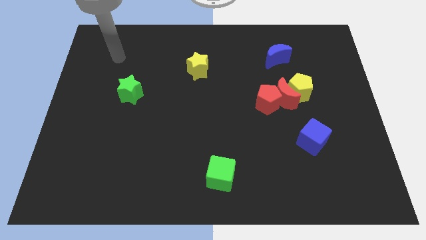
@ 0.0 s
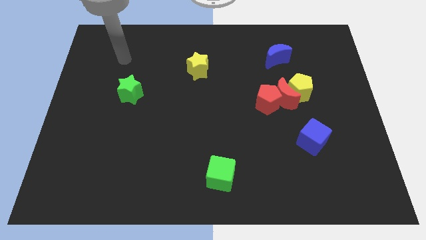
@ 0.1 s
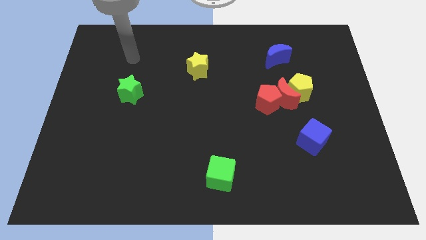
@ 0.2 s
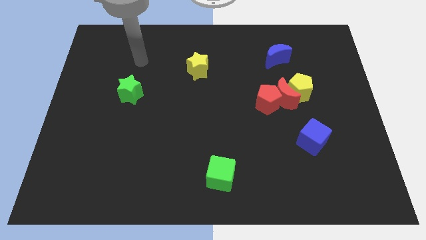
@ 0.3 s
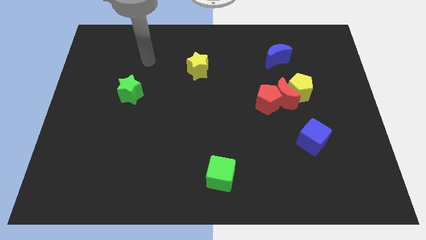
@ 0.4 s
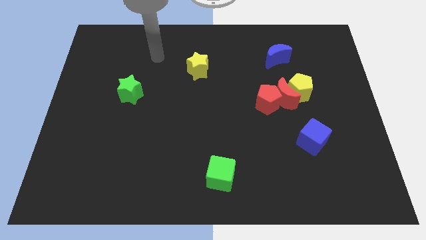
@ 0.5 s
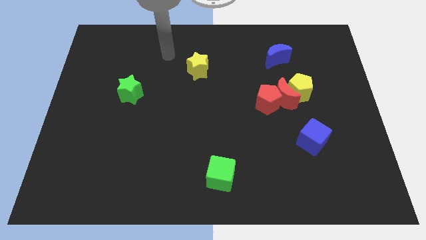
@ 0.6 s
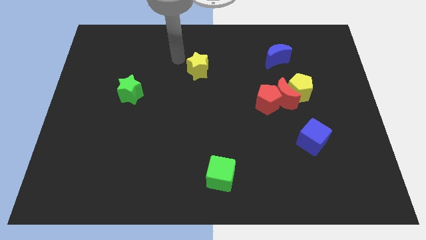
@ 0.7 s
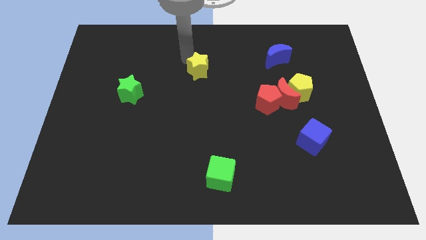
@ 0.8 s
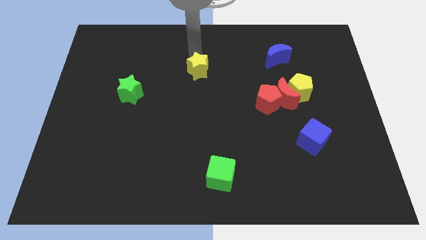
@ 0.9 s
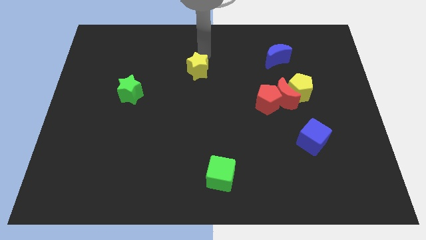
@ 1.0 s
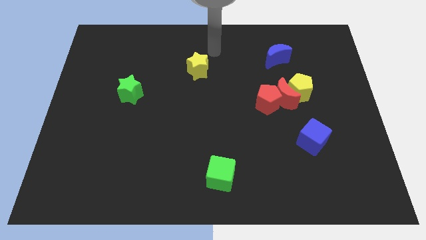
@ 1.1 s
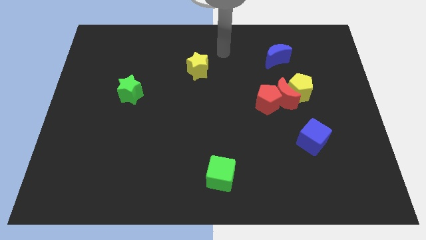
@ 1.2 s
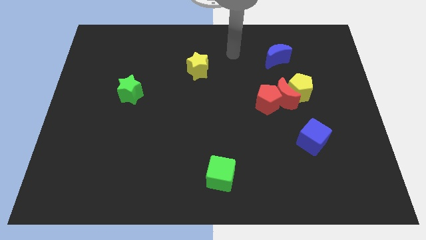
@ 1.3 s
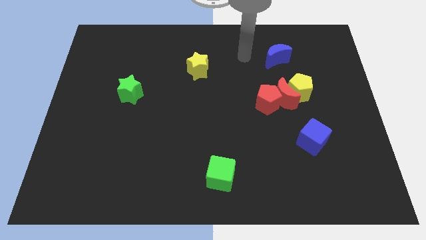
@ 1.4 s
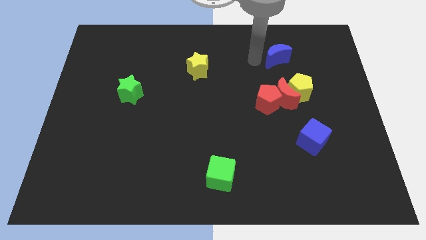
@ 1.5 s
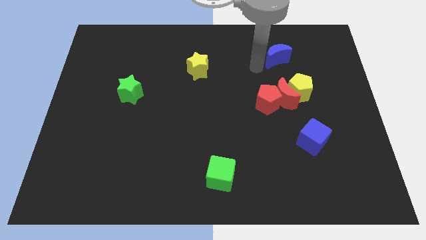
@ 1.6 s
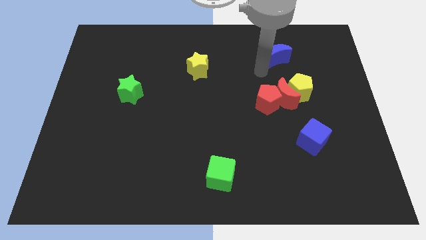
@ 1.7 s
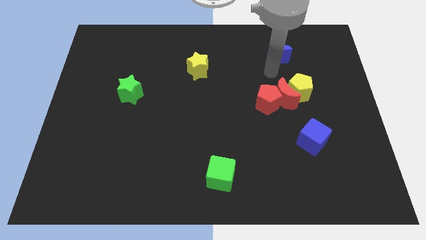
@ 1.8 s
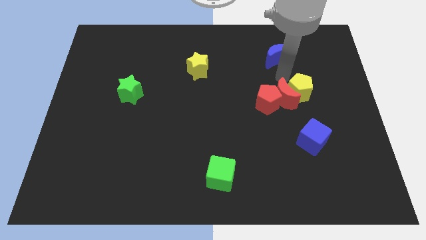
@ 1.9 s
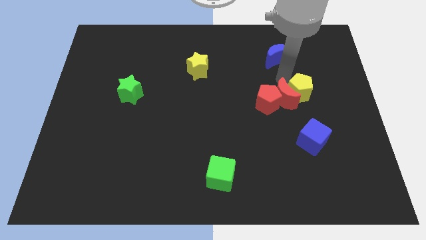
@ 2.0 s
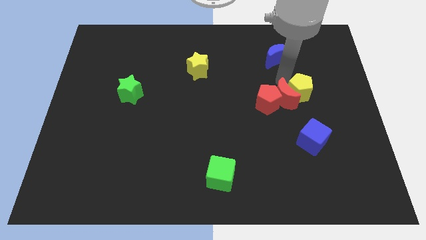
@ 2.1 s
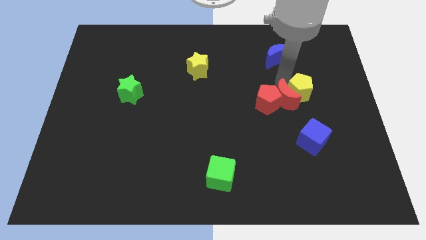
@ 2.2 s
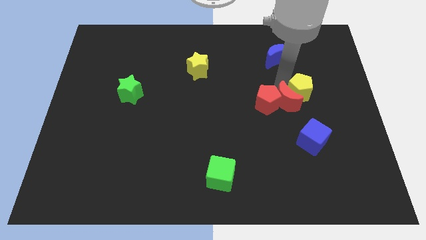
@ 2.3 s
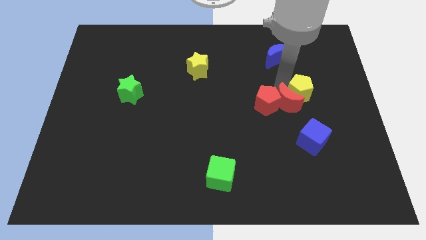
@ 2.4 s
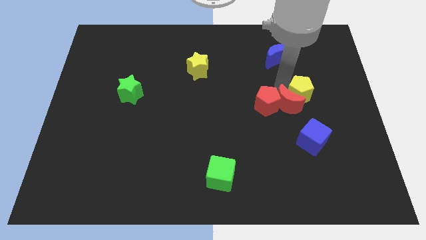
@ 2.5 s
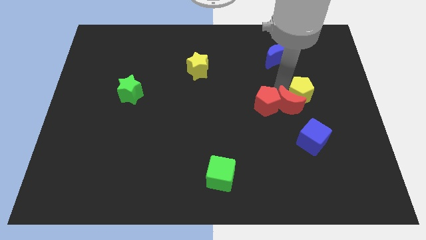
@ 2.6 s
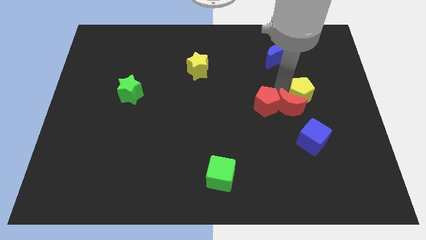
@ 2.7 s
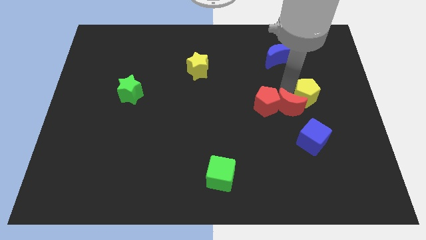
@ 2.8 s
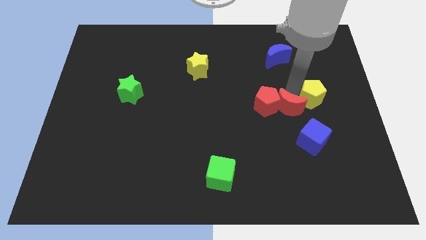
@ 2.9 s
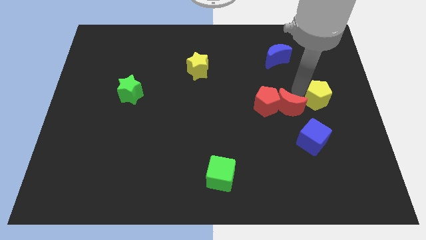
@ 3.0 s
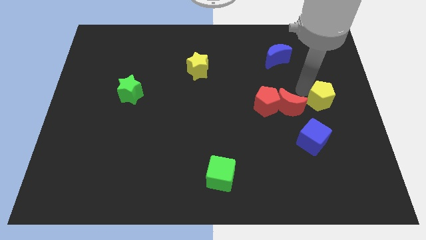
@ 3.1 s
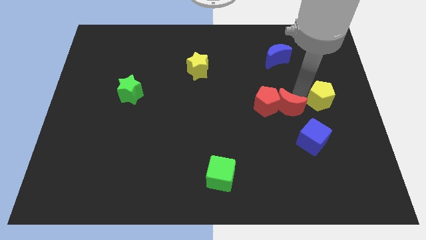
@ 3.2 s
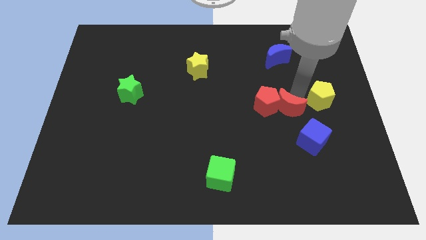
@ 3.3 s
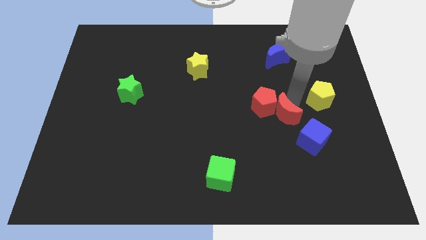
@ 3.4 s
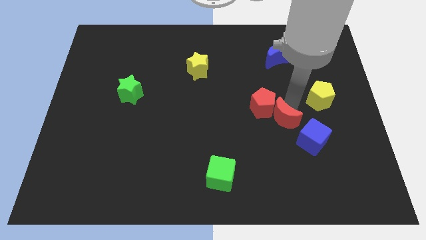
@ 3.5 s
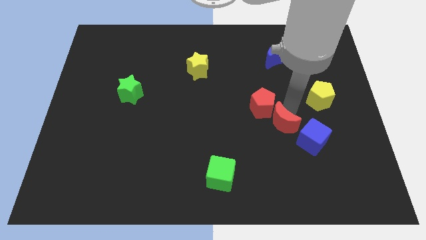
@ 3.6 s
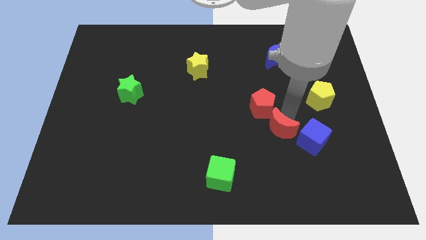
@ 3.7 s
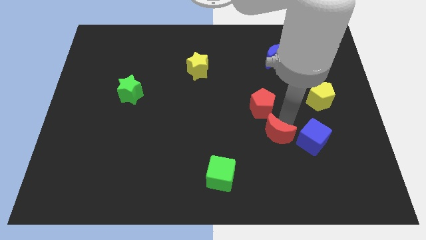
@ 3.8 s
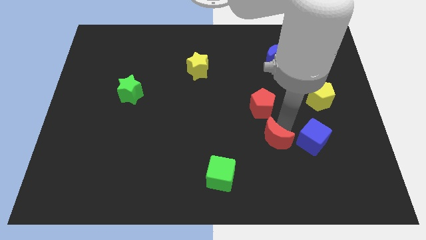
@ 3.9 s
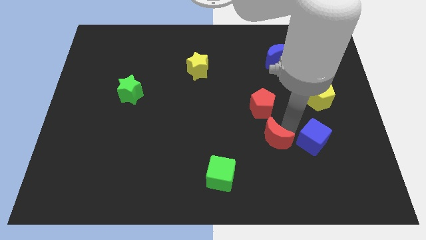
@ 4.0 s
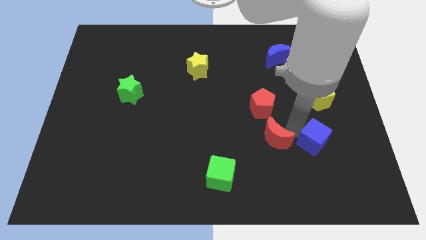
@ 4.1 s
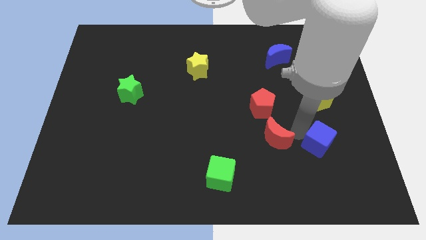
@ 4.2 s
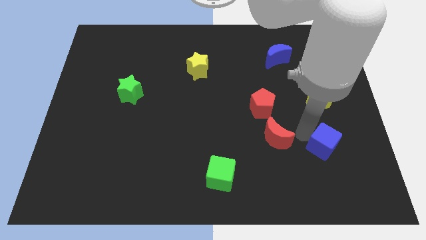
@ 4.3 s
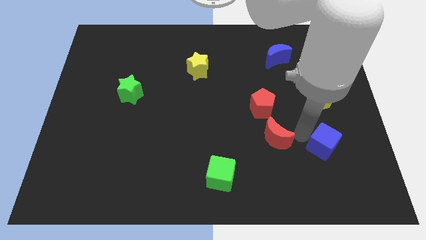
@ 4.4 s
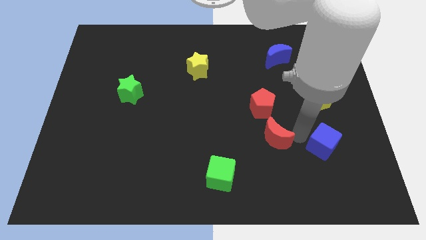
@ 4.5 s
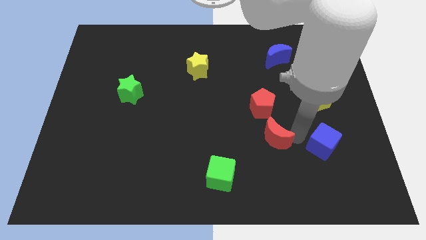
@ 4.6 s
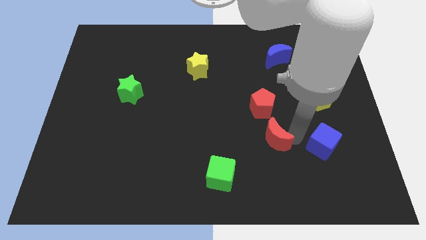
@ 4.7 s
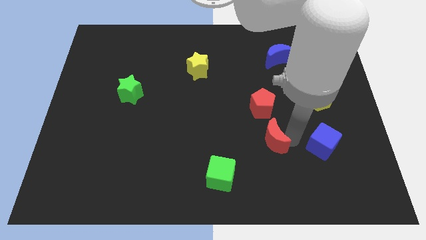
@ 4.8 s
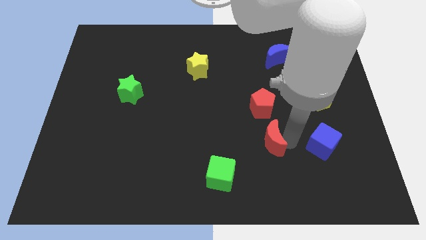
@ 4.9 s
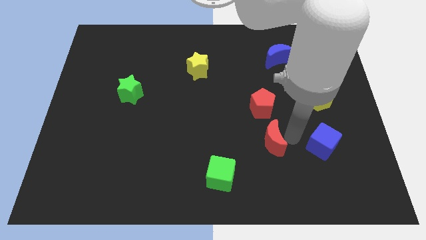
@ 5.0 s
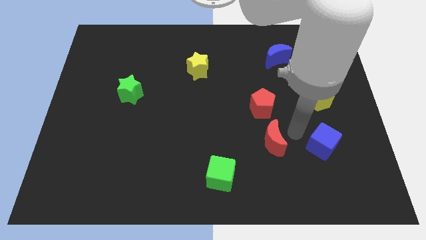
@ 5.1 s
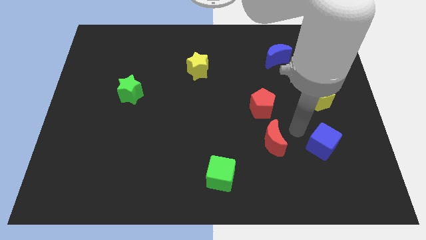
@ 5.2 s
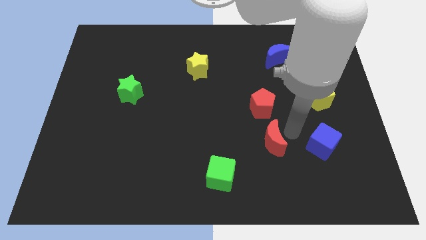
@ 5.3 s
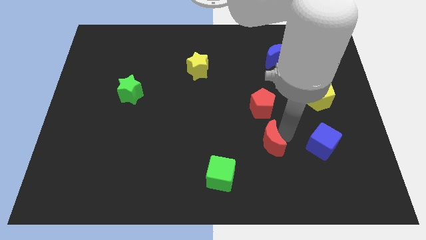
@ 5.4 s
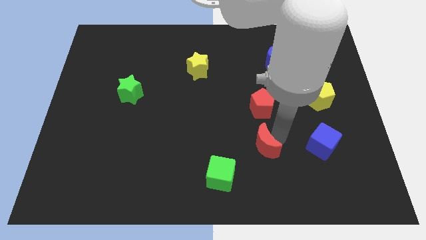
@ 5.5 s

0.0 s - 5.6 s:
put the red moon to the top right of the green cube

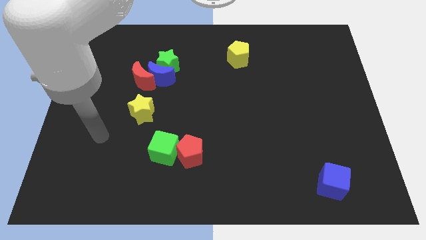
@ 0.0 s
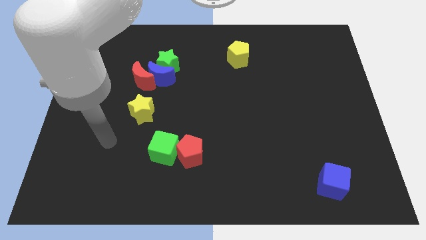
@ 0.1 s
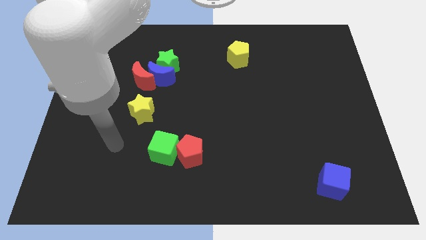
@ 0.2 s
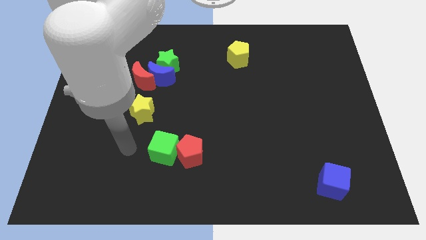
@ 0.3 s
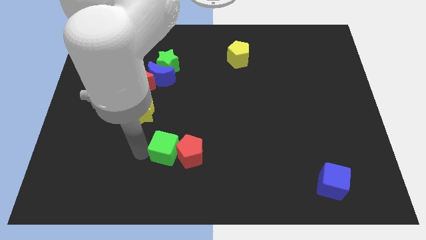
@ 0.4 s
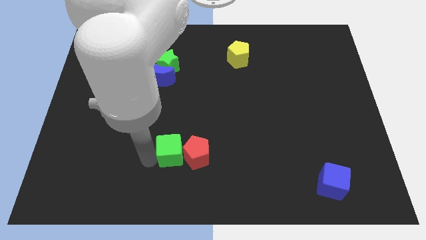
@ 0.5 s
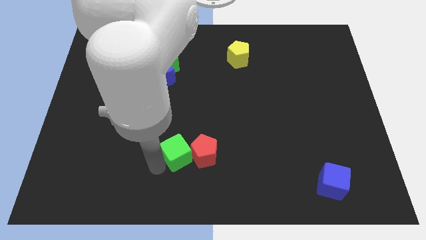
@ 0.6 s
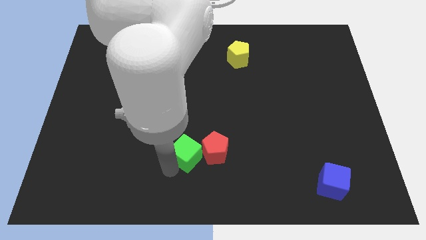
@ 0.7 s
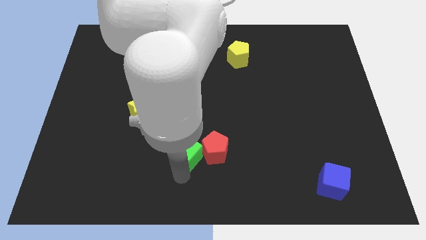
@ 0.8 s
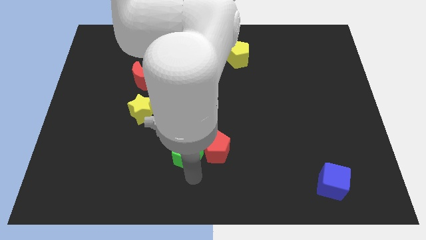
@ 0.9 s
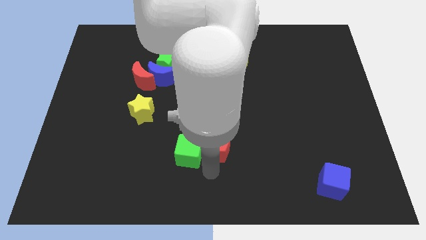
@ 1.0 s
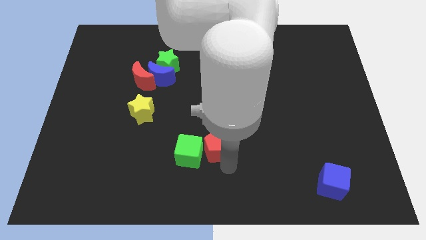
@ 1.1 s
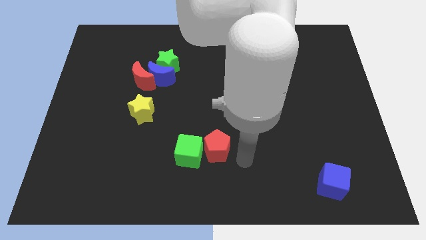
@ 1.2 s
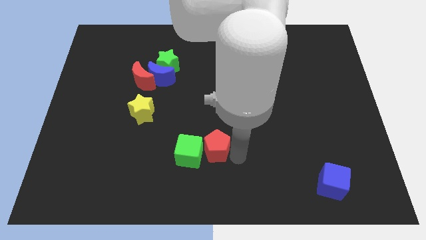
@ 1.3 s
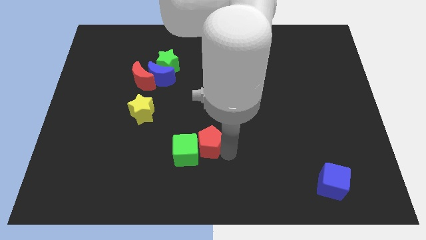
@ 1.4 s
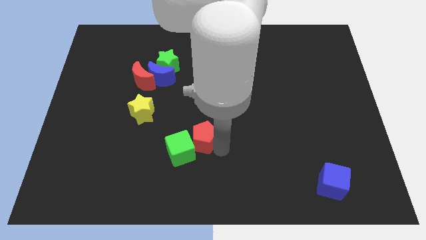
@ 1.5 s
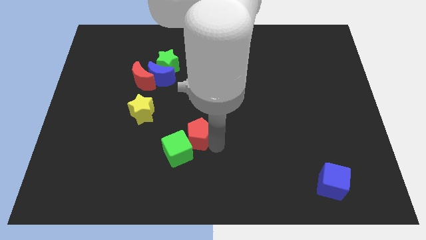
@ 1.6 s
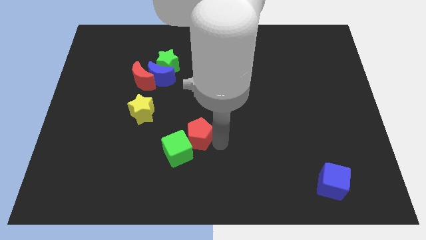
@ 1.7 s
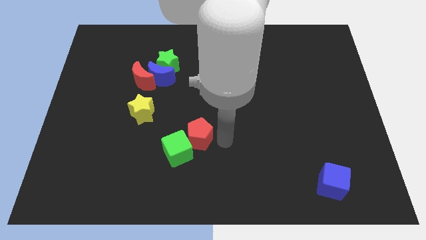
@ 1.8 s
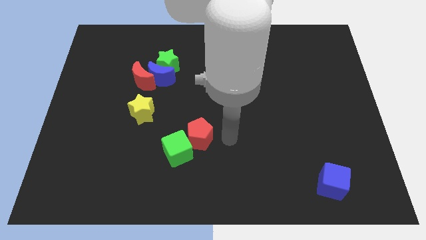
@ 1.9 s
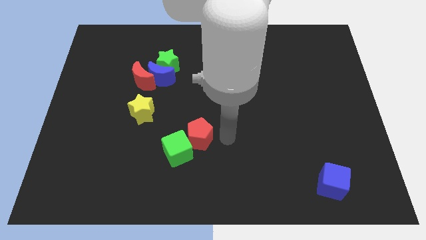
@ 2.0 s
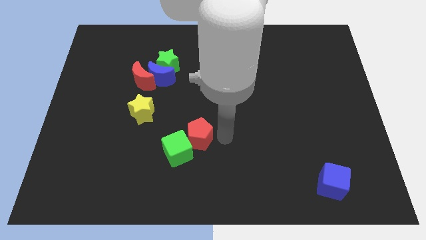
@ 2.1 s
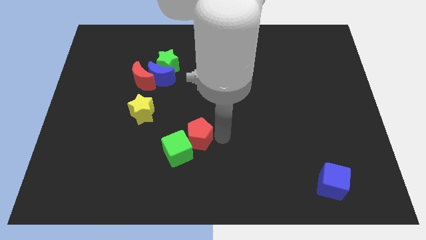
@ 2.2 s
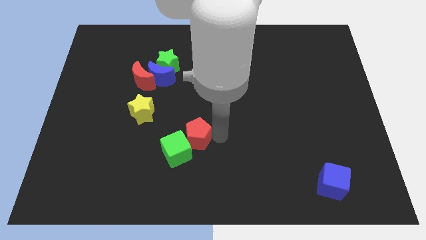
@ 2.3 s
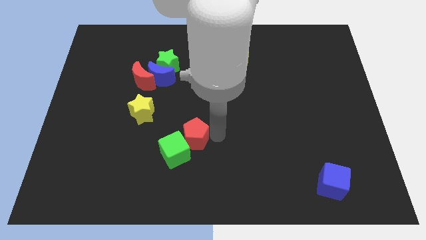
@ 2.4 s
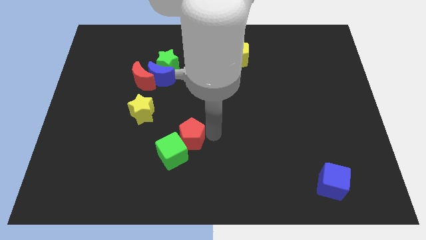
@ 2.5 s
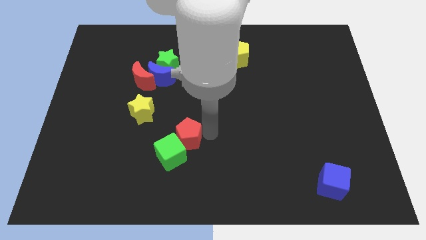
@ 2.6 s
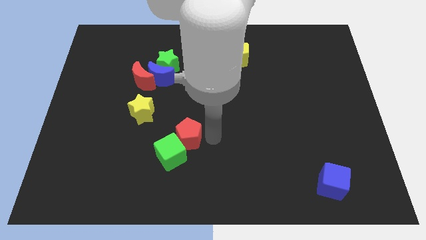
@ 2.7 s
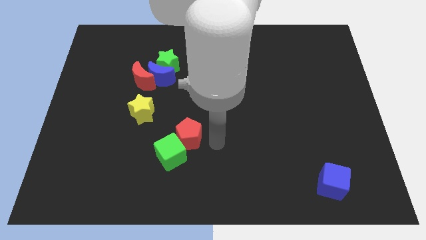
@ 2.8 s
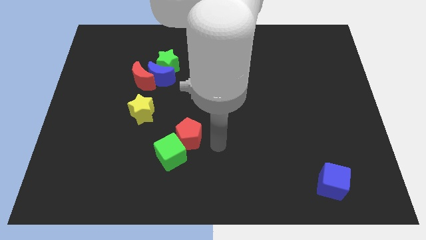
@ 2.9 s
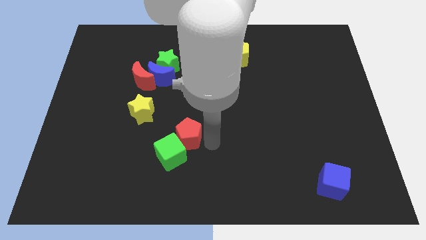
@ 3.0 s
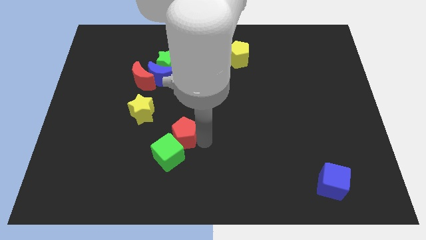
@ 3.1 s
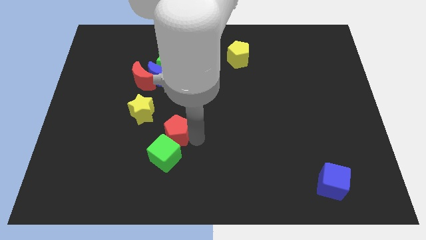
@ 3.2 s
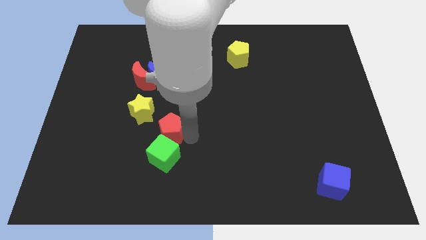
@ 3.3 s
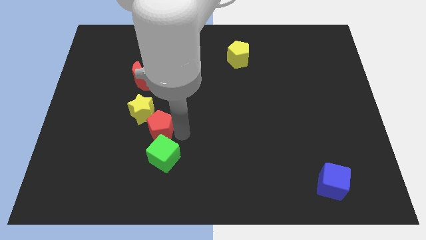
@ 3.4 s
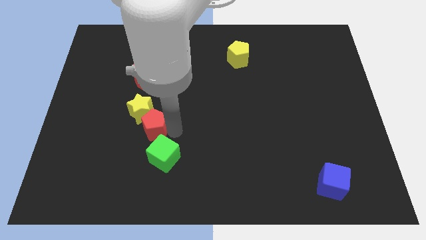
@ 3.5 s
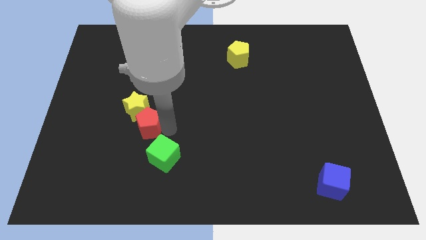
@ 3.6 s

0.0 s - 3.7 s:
slide the red pentagon to the bottom of the red moon
